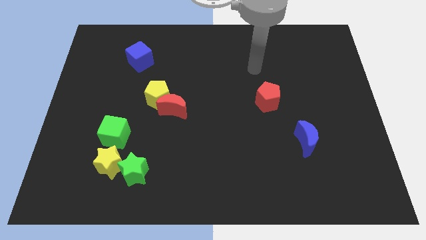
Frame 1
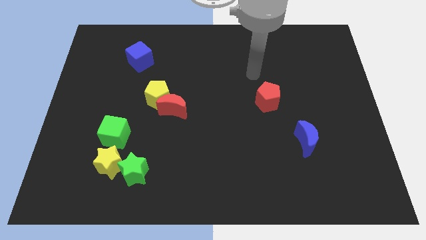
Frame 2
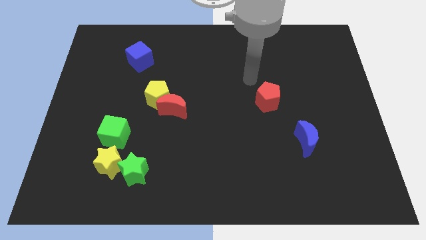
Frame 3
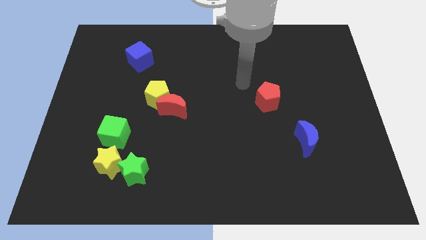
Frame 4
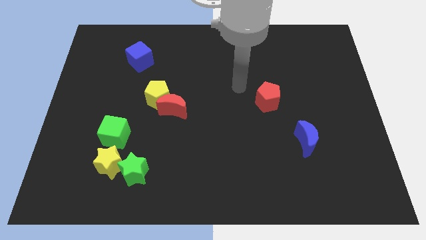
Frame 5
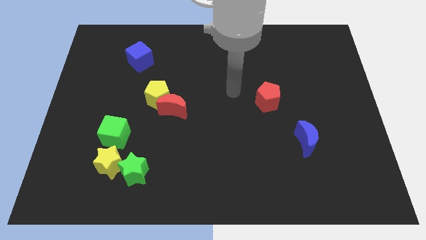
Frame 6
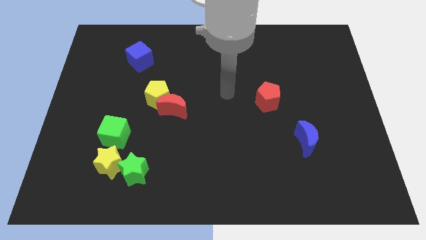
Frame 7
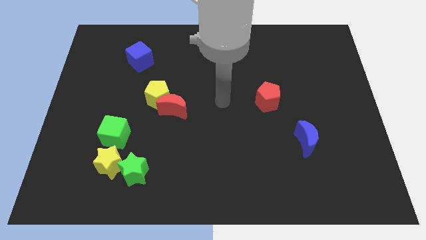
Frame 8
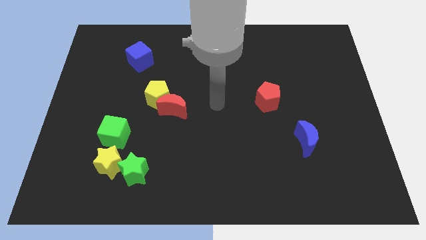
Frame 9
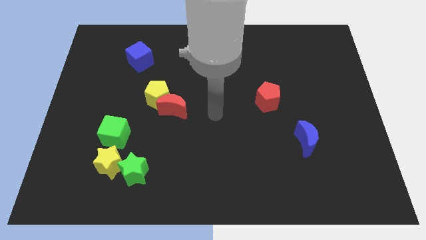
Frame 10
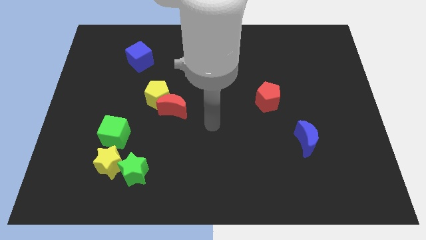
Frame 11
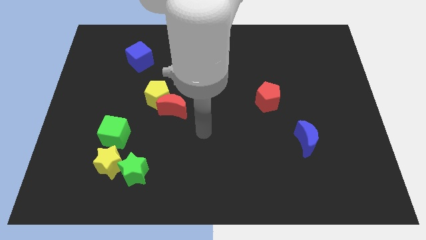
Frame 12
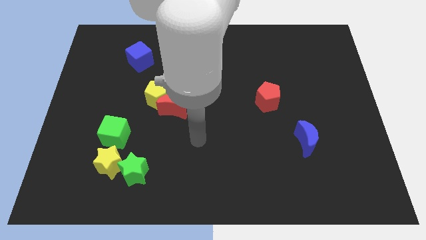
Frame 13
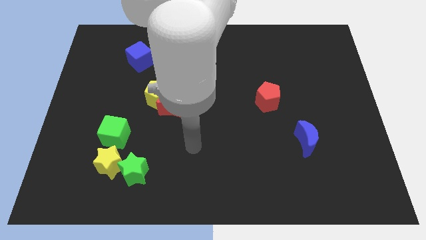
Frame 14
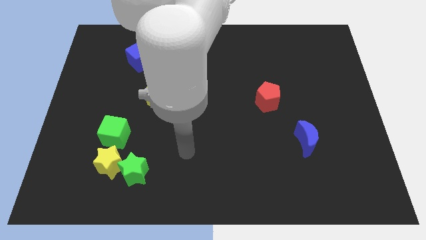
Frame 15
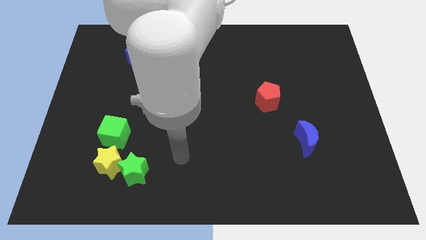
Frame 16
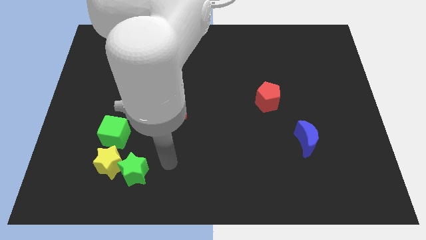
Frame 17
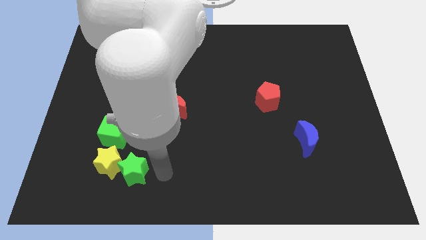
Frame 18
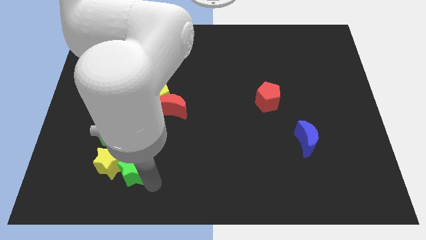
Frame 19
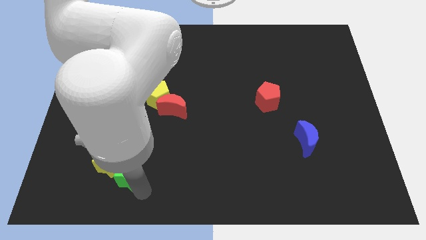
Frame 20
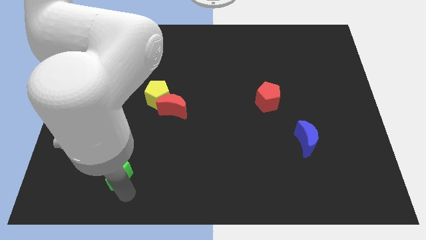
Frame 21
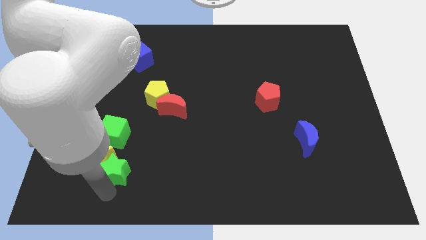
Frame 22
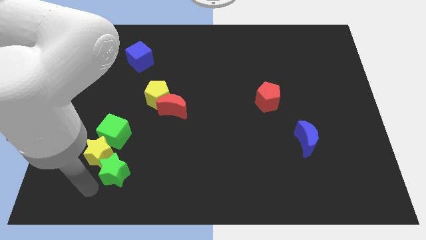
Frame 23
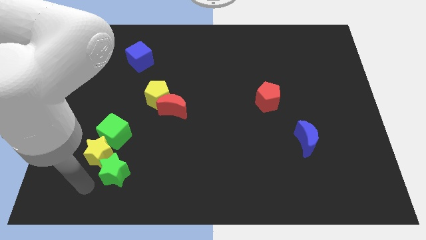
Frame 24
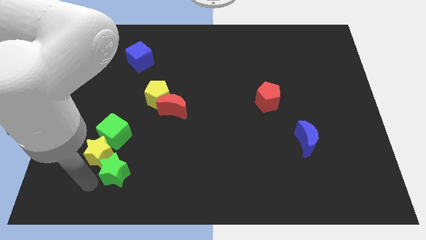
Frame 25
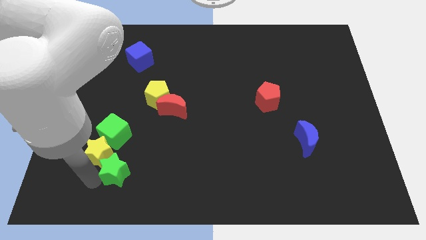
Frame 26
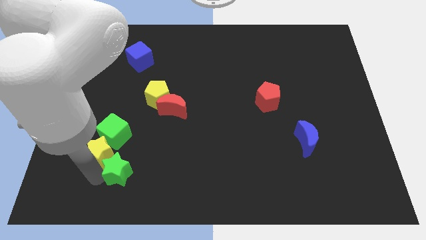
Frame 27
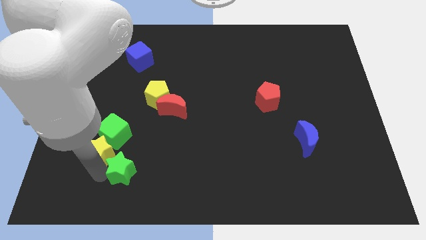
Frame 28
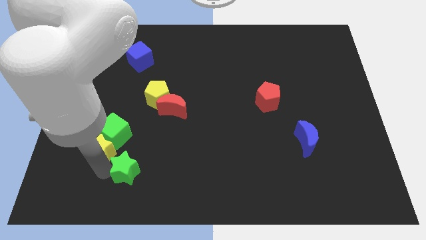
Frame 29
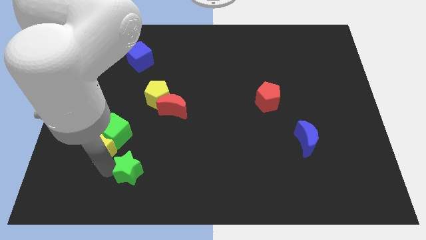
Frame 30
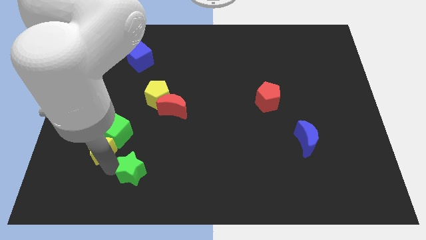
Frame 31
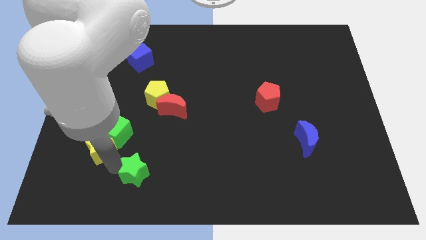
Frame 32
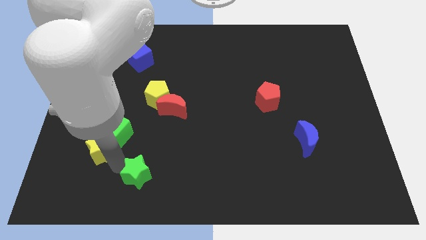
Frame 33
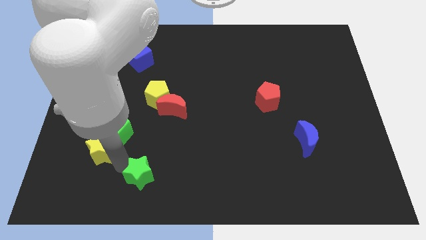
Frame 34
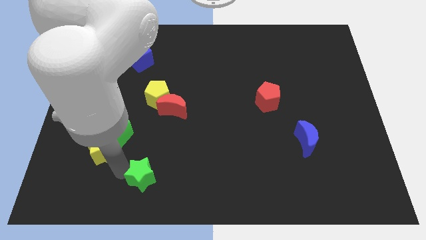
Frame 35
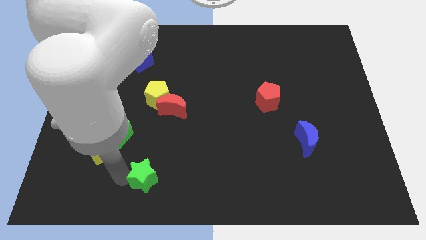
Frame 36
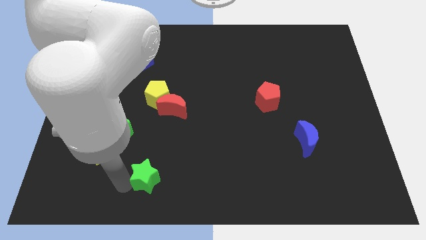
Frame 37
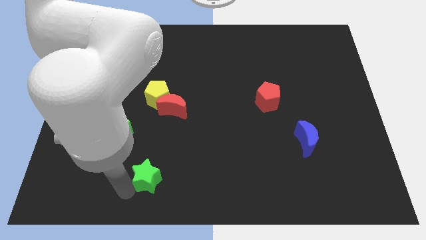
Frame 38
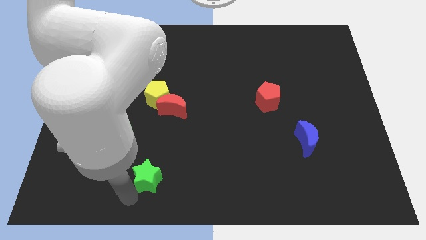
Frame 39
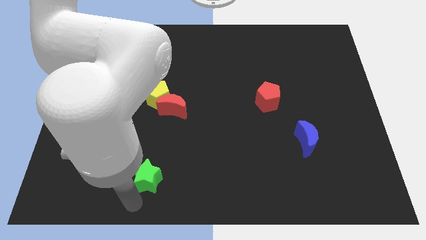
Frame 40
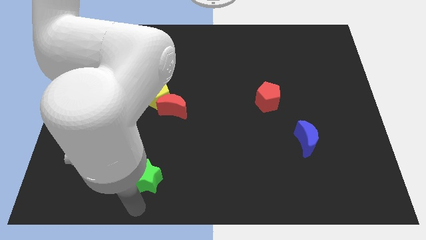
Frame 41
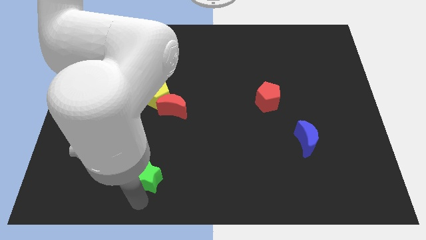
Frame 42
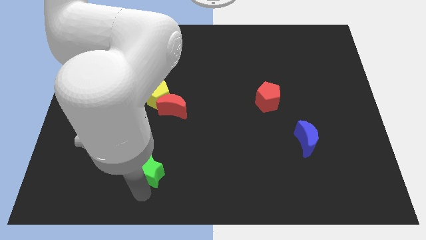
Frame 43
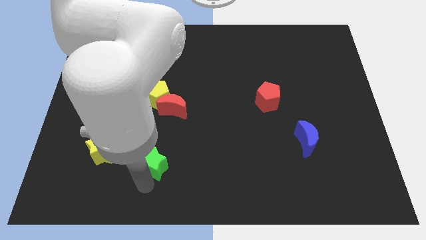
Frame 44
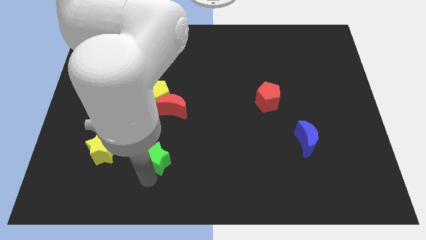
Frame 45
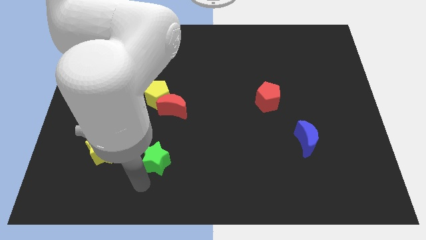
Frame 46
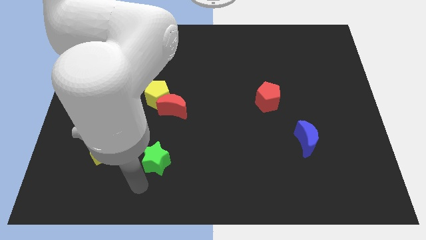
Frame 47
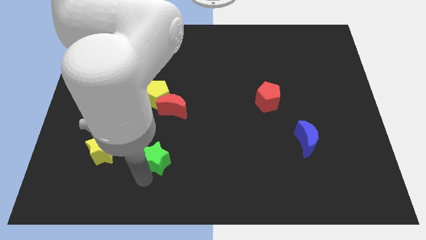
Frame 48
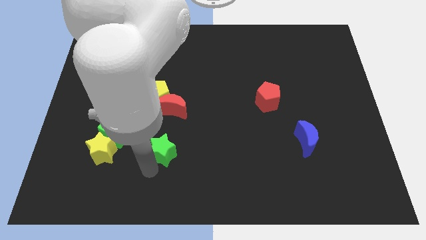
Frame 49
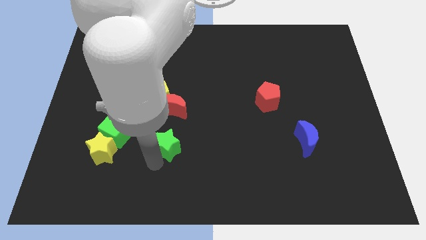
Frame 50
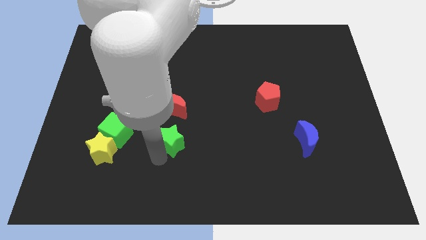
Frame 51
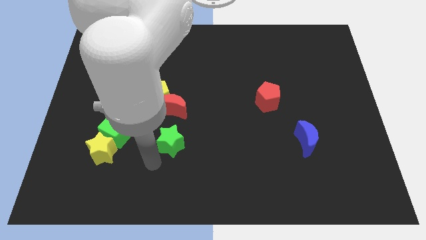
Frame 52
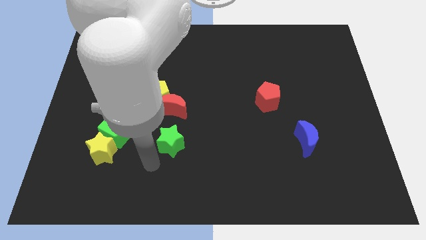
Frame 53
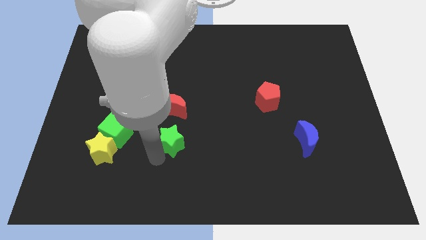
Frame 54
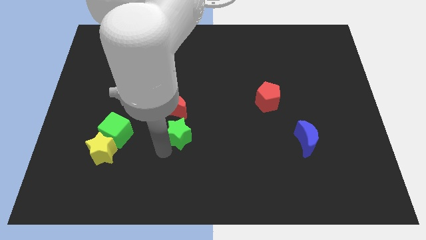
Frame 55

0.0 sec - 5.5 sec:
push the green star to the center of the board
